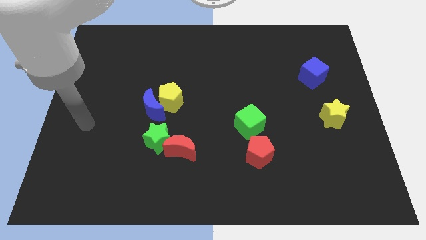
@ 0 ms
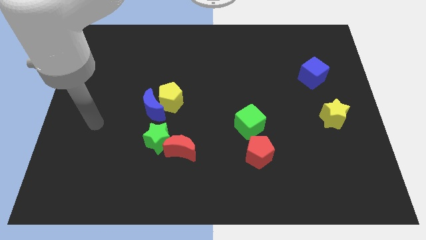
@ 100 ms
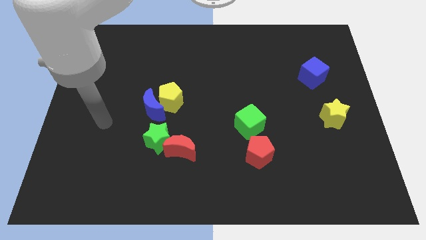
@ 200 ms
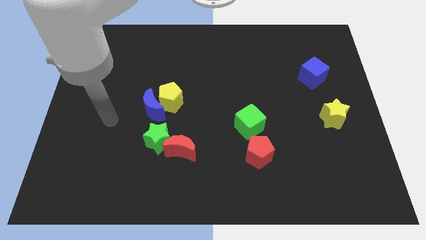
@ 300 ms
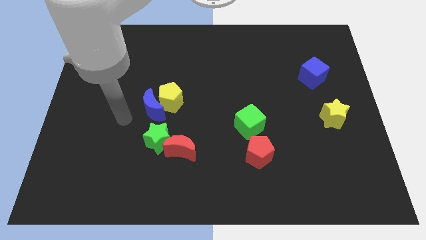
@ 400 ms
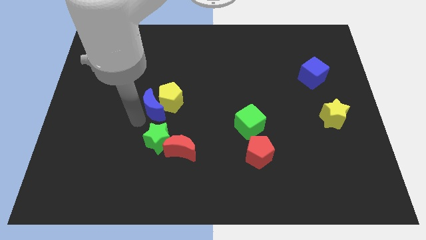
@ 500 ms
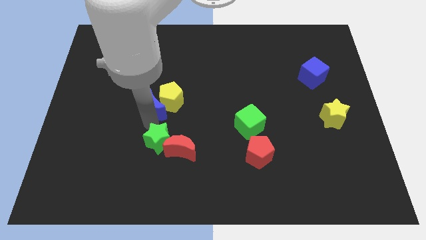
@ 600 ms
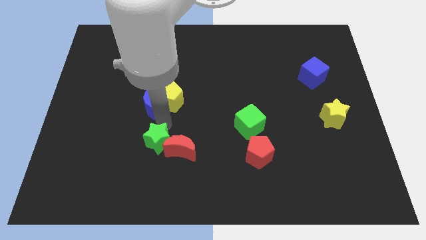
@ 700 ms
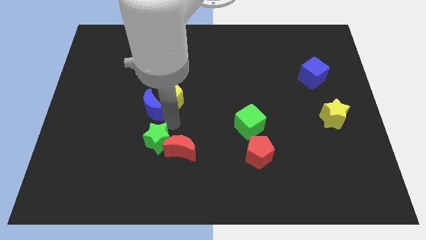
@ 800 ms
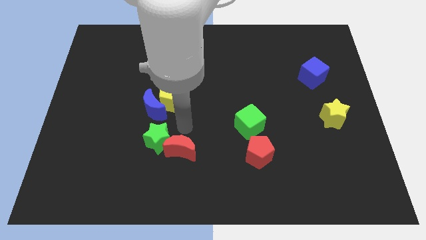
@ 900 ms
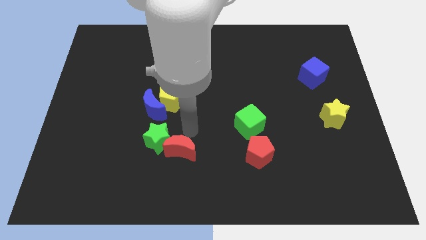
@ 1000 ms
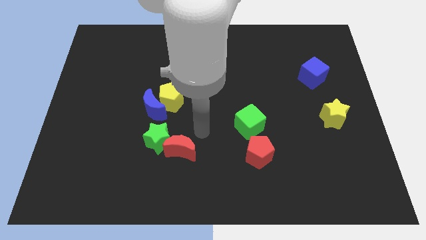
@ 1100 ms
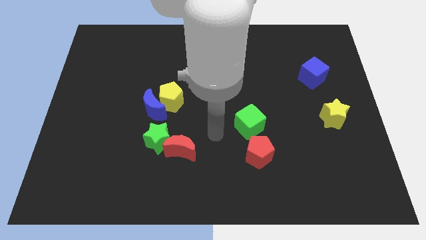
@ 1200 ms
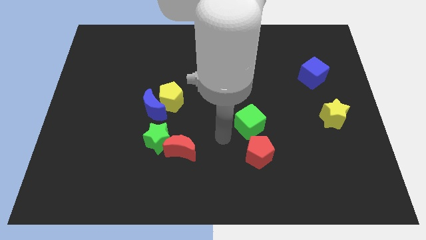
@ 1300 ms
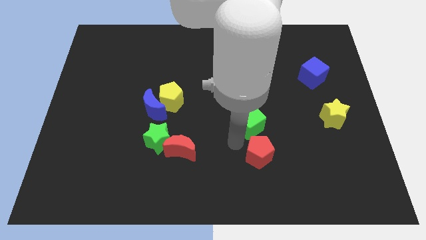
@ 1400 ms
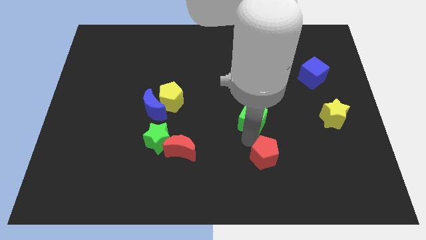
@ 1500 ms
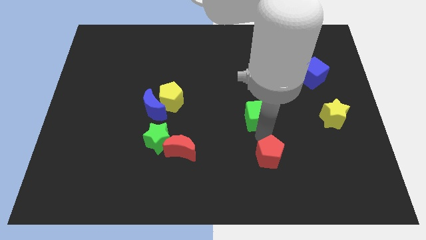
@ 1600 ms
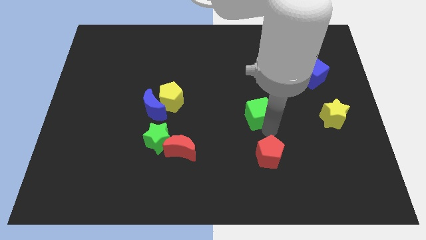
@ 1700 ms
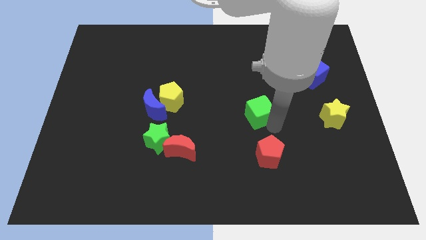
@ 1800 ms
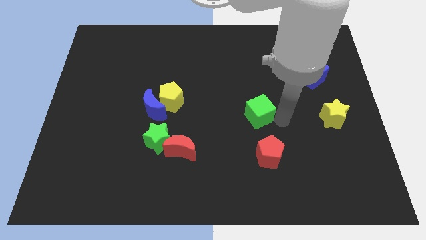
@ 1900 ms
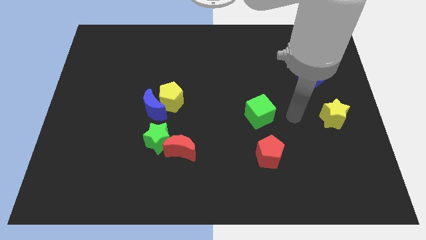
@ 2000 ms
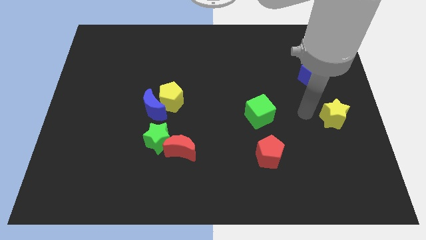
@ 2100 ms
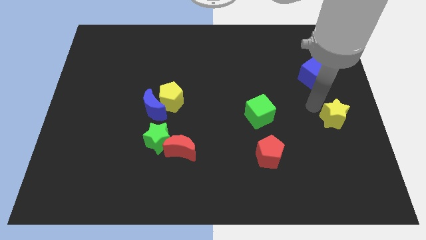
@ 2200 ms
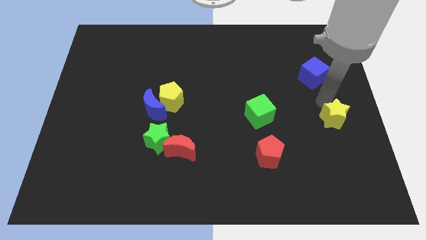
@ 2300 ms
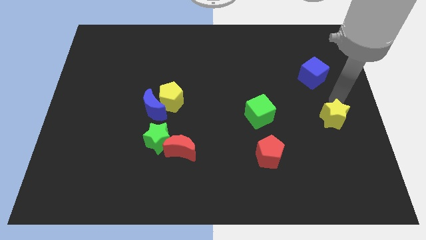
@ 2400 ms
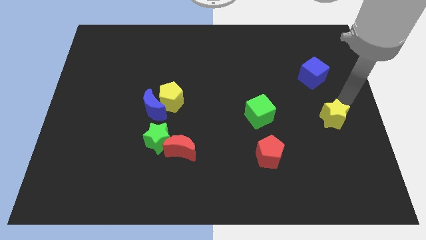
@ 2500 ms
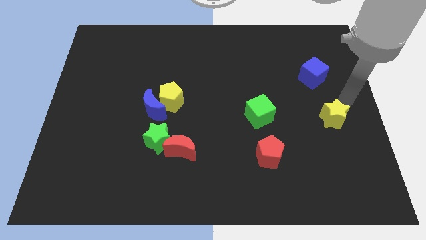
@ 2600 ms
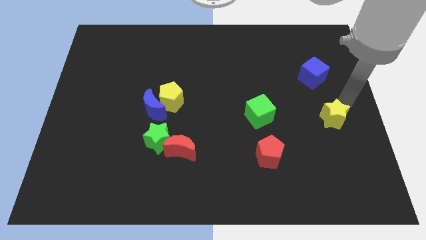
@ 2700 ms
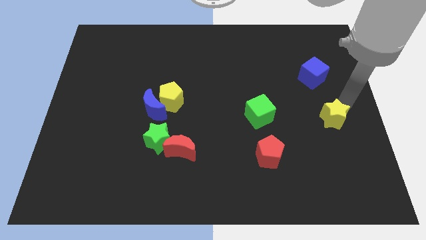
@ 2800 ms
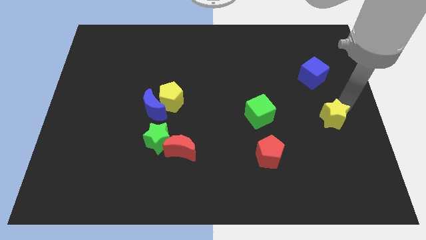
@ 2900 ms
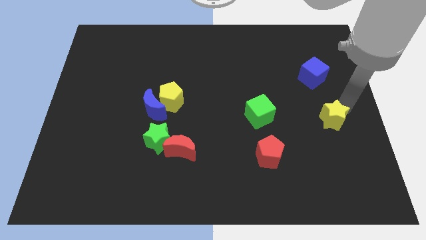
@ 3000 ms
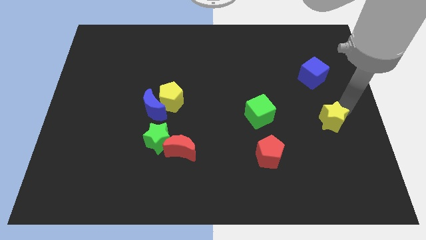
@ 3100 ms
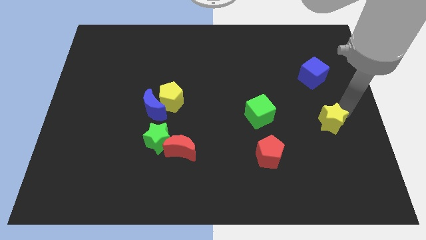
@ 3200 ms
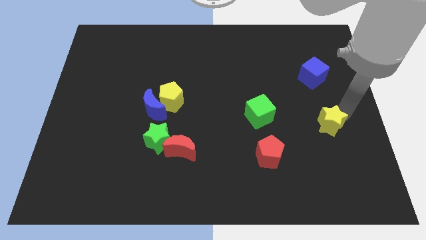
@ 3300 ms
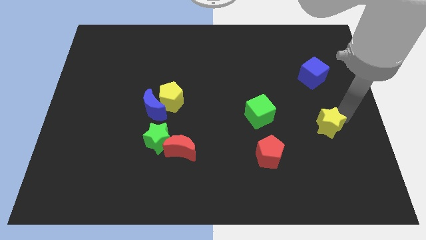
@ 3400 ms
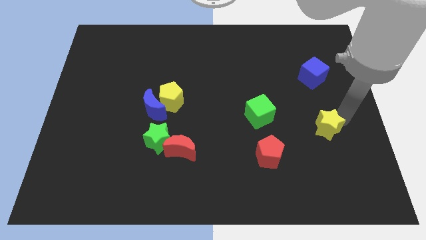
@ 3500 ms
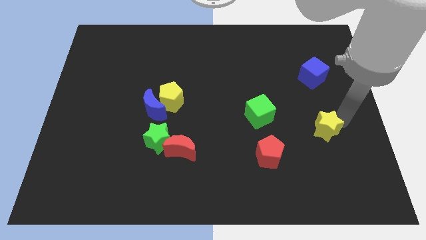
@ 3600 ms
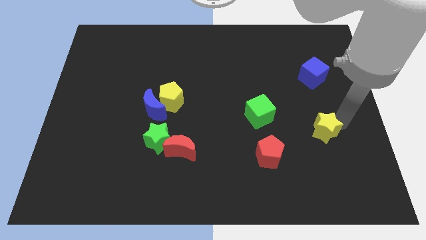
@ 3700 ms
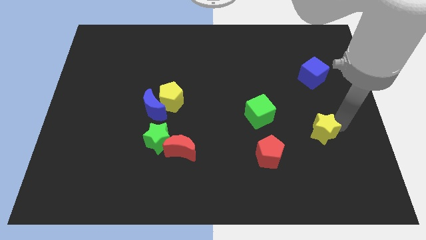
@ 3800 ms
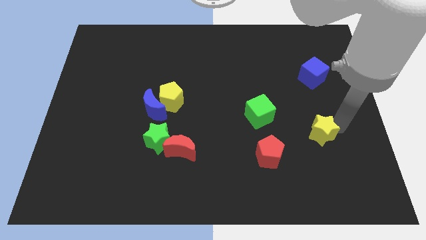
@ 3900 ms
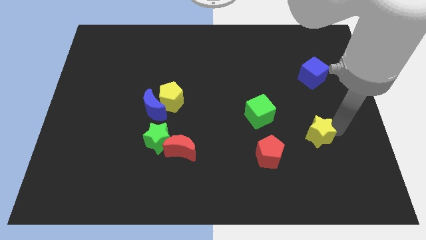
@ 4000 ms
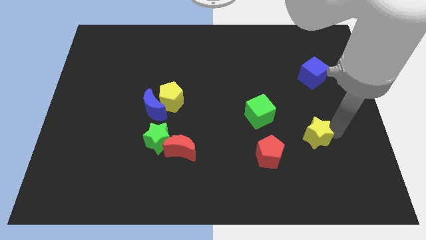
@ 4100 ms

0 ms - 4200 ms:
slide the yellow star down and then to the left a little

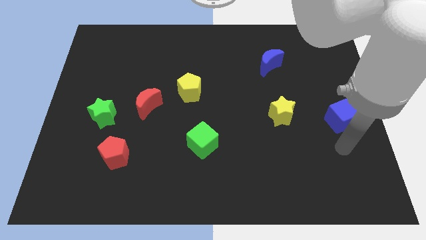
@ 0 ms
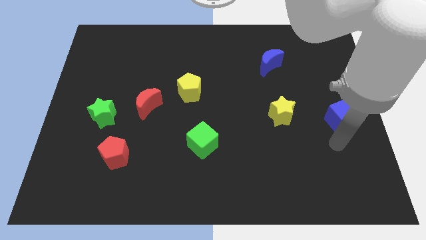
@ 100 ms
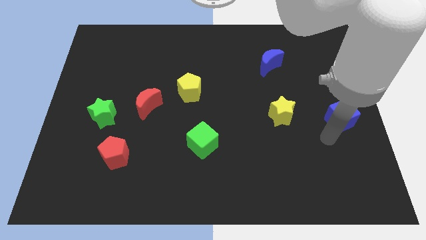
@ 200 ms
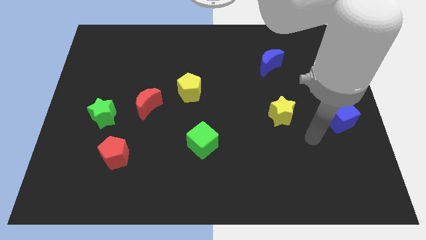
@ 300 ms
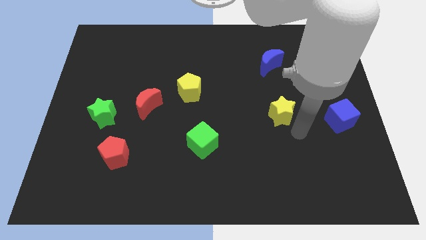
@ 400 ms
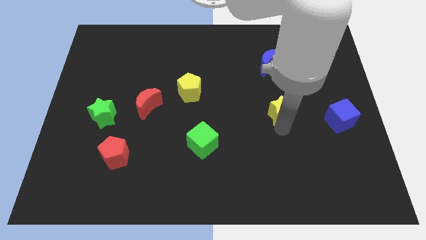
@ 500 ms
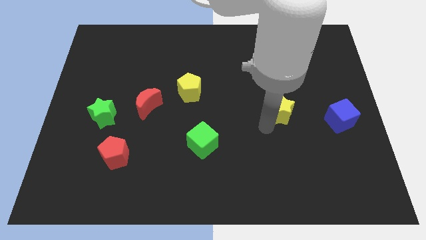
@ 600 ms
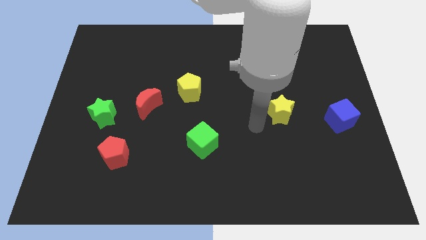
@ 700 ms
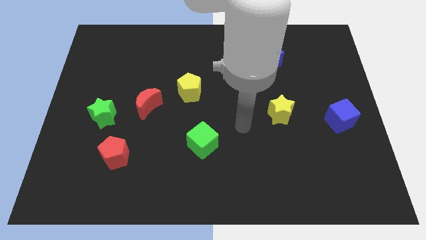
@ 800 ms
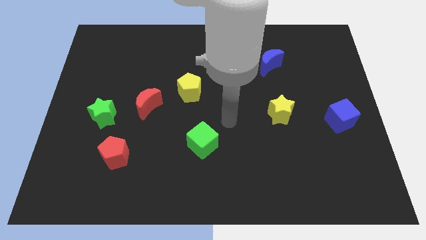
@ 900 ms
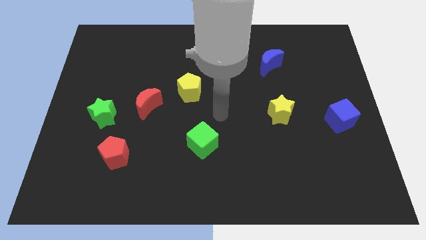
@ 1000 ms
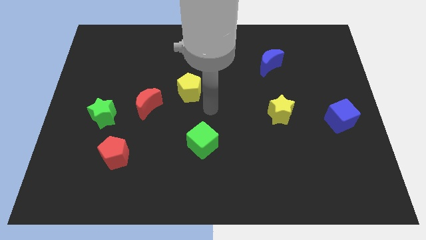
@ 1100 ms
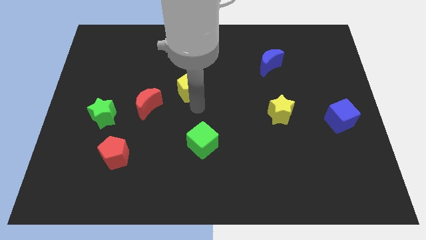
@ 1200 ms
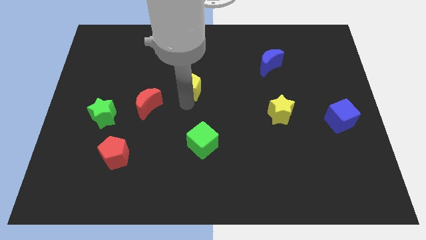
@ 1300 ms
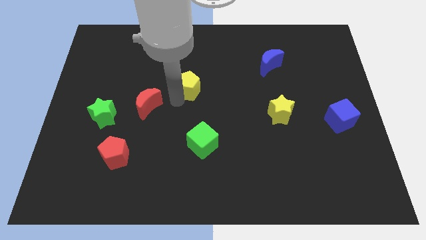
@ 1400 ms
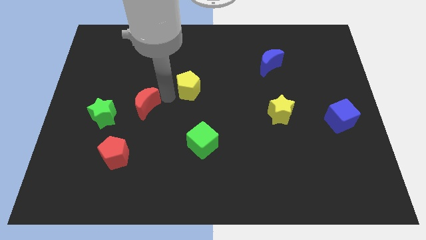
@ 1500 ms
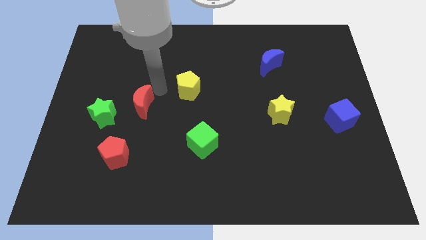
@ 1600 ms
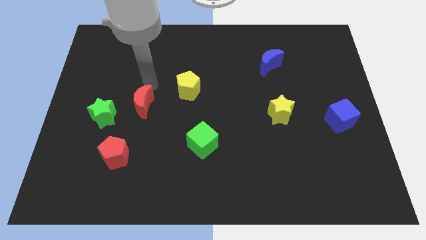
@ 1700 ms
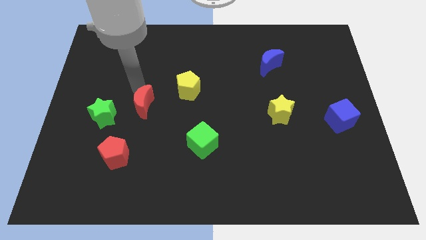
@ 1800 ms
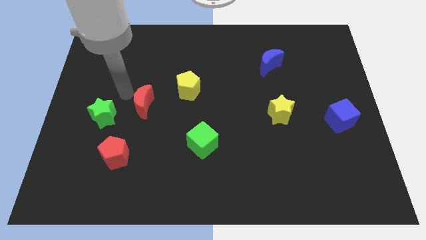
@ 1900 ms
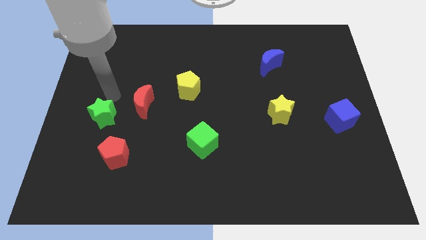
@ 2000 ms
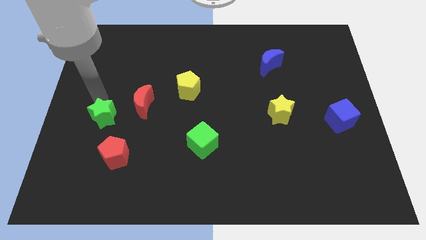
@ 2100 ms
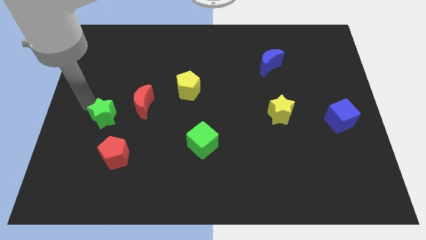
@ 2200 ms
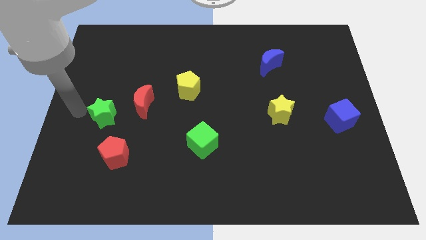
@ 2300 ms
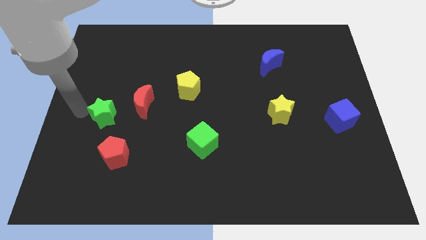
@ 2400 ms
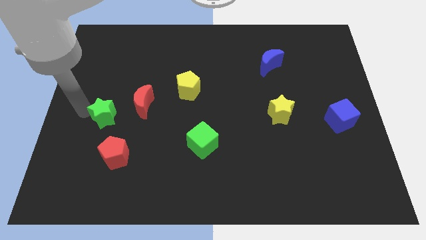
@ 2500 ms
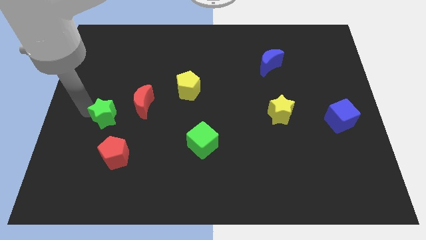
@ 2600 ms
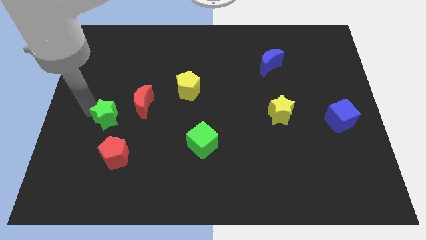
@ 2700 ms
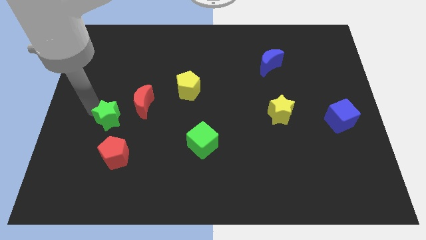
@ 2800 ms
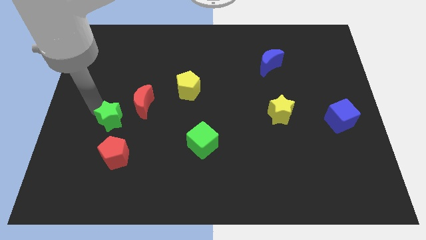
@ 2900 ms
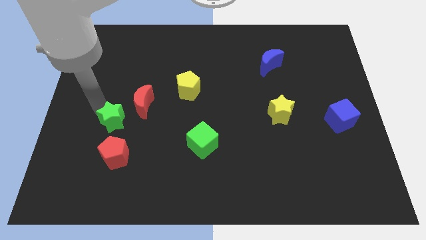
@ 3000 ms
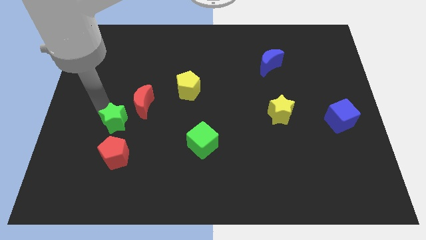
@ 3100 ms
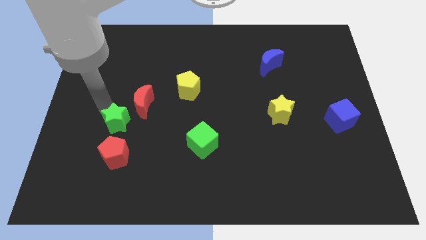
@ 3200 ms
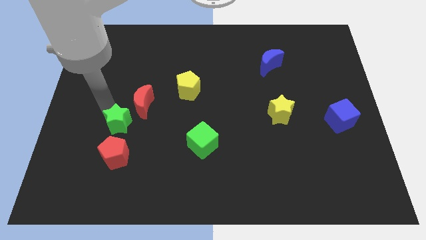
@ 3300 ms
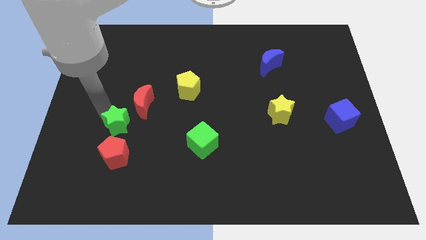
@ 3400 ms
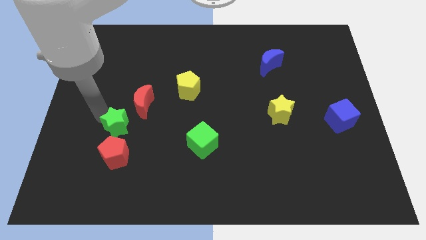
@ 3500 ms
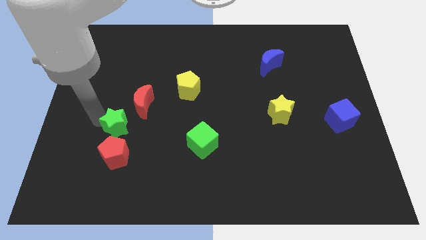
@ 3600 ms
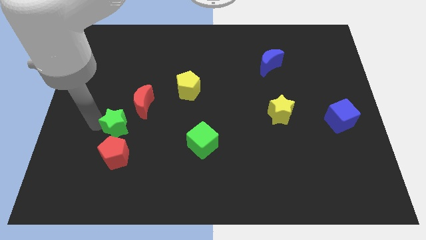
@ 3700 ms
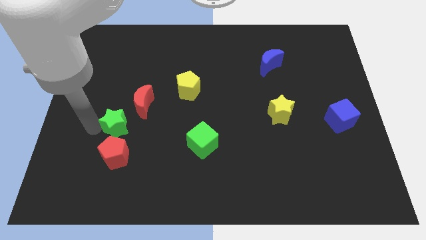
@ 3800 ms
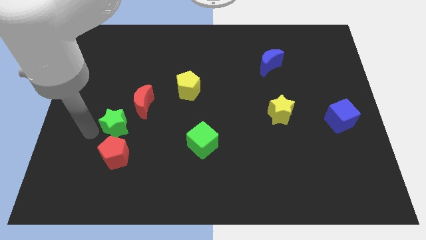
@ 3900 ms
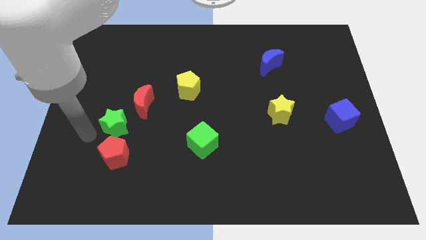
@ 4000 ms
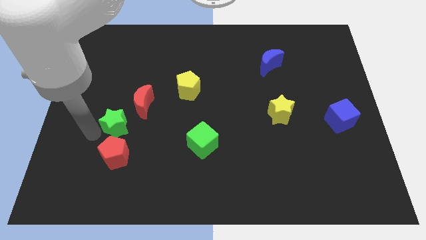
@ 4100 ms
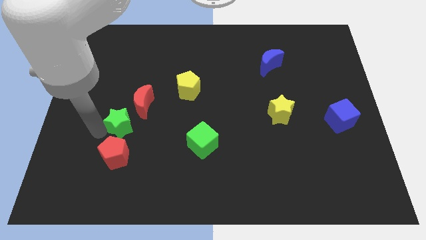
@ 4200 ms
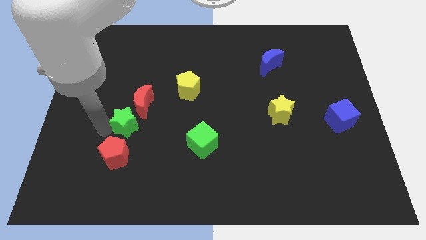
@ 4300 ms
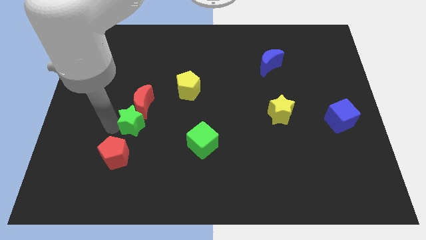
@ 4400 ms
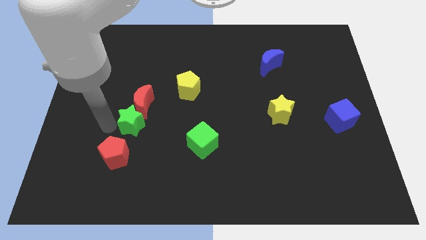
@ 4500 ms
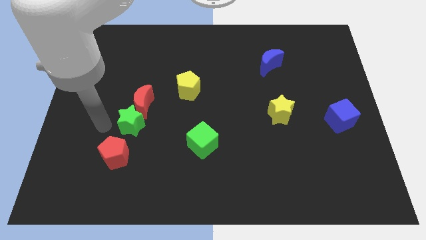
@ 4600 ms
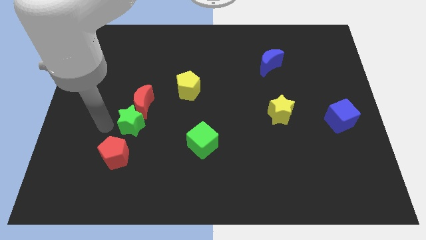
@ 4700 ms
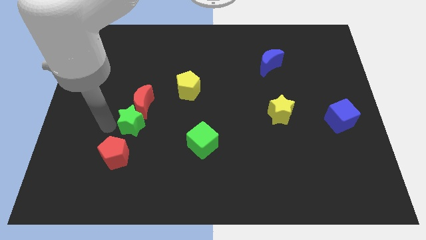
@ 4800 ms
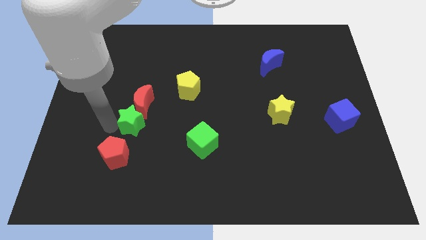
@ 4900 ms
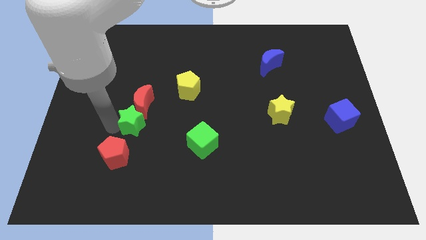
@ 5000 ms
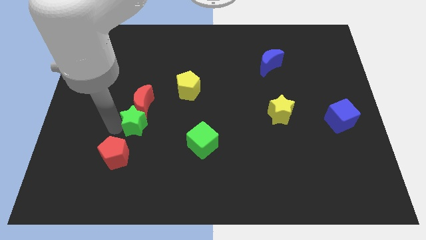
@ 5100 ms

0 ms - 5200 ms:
move the green star to the right a bit
